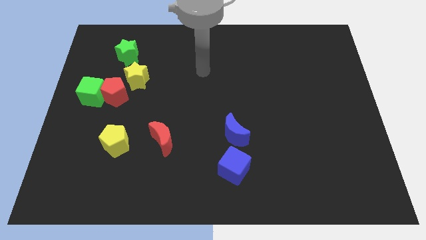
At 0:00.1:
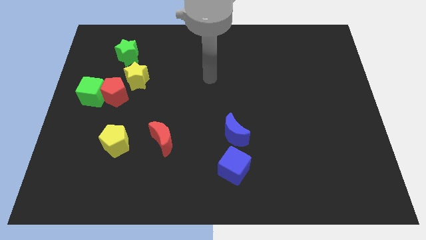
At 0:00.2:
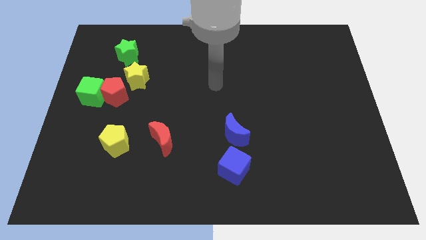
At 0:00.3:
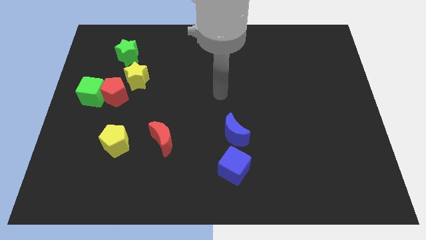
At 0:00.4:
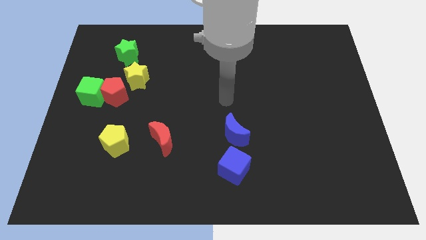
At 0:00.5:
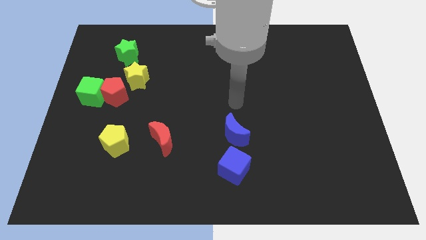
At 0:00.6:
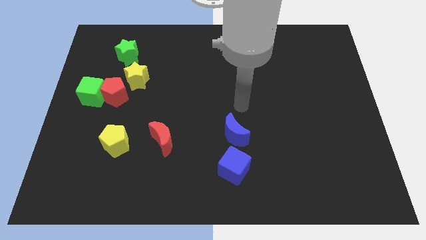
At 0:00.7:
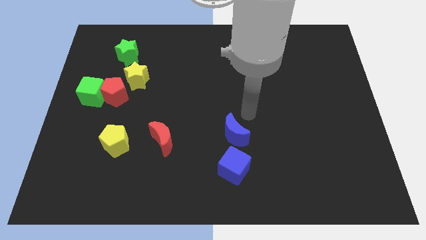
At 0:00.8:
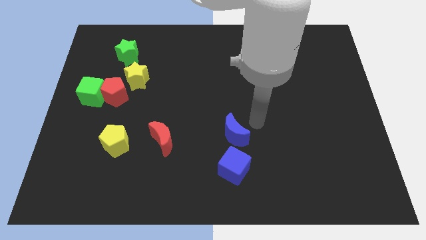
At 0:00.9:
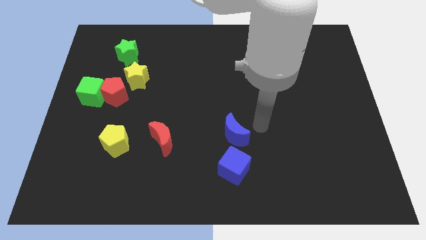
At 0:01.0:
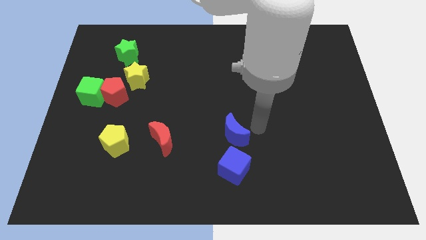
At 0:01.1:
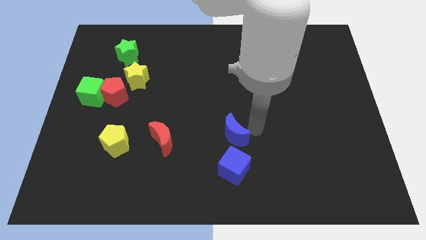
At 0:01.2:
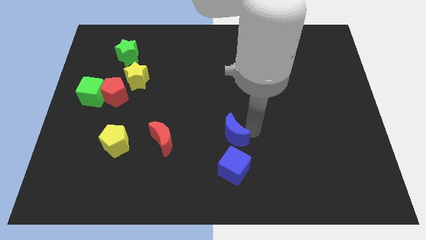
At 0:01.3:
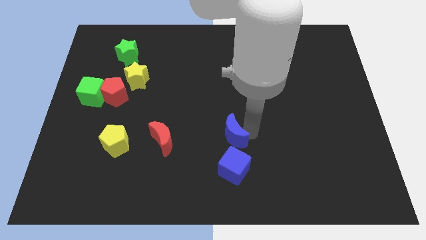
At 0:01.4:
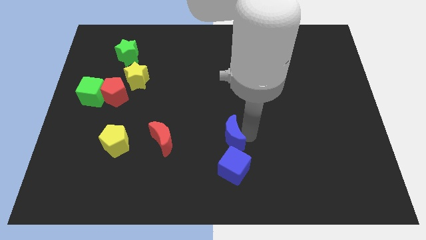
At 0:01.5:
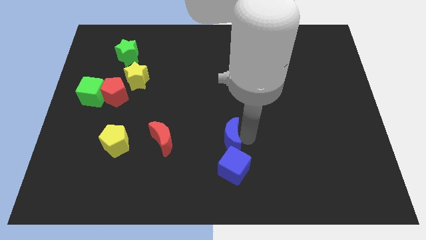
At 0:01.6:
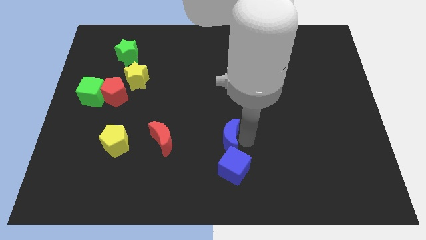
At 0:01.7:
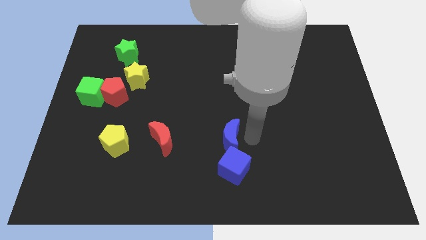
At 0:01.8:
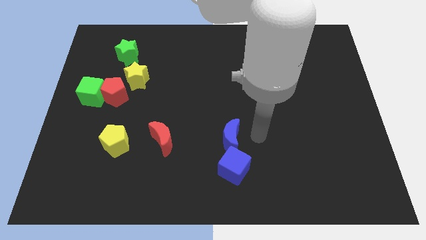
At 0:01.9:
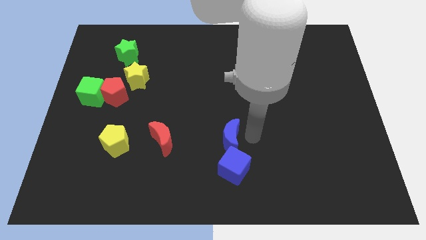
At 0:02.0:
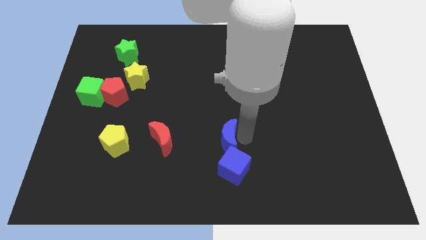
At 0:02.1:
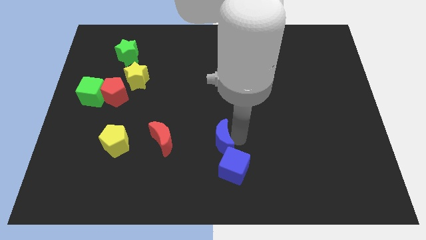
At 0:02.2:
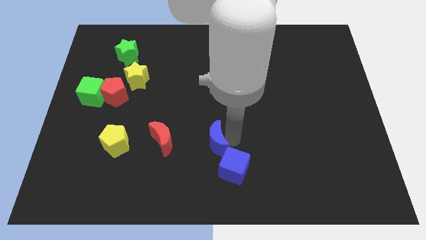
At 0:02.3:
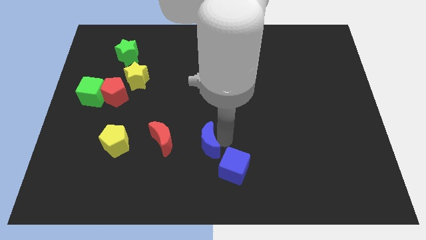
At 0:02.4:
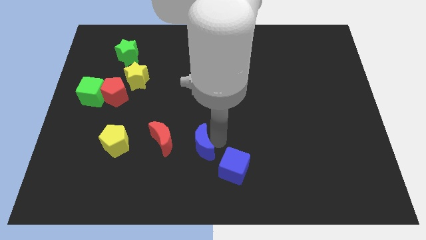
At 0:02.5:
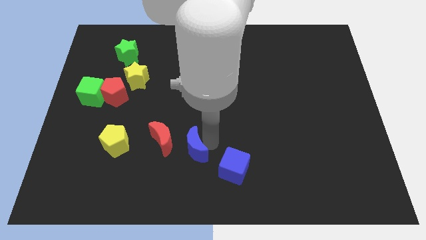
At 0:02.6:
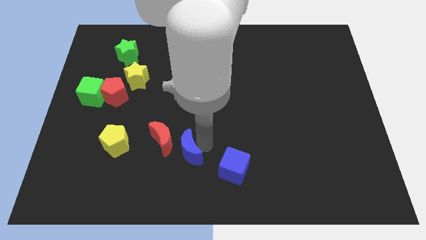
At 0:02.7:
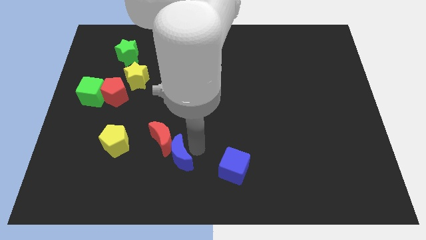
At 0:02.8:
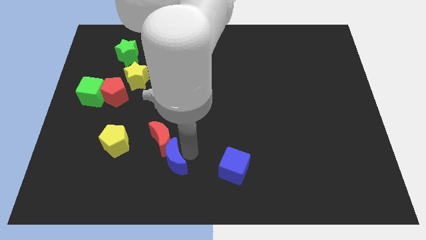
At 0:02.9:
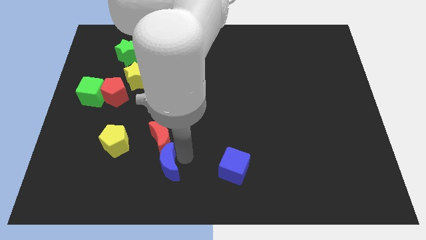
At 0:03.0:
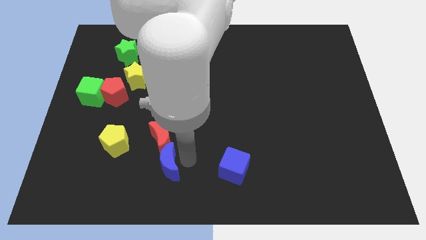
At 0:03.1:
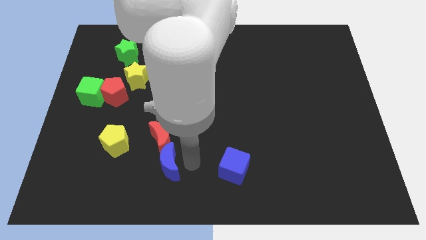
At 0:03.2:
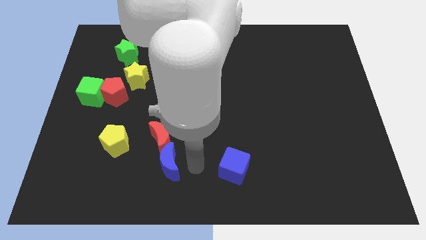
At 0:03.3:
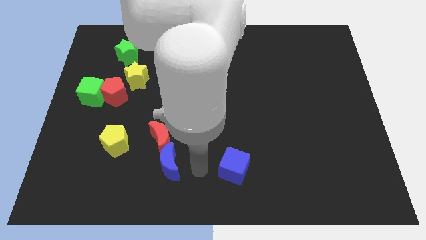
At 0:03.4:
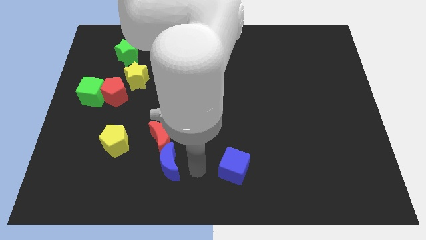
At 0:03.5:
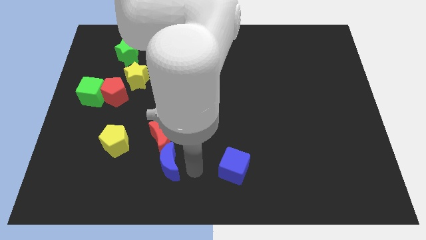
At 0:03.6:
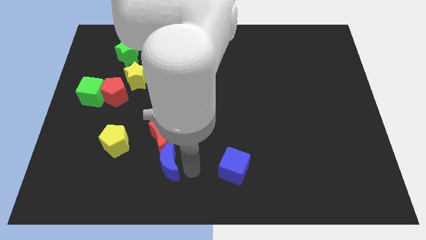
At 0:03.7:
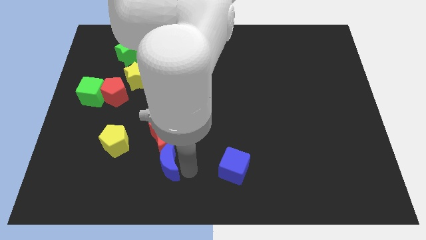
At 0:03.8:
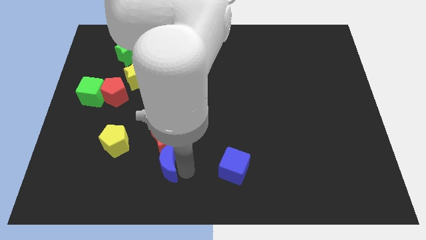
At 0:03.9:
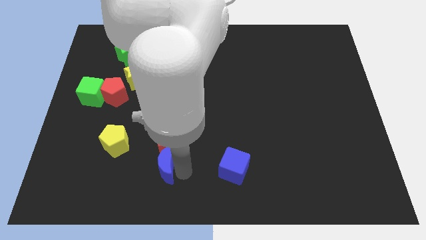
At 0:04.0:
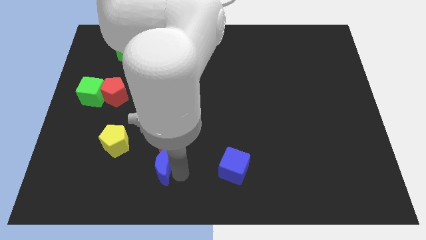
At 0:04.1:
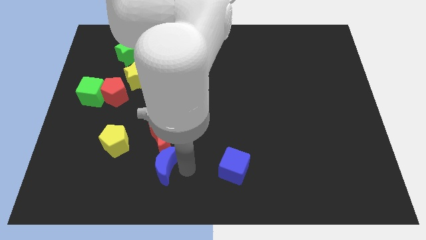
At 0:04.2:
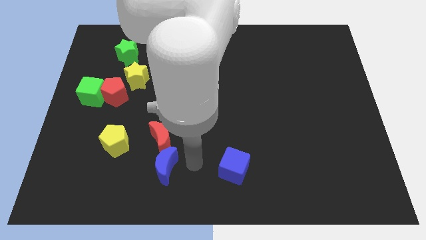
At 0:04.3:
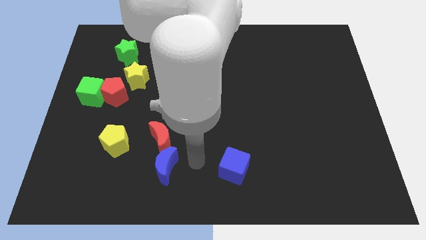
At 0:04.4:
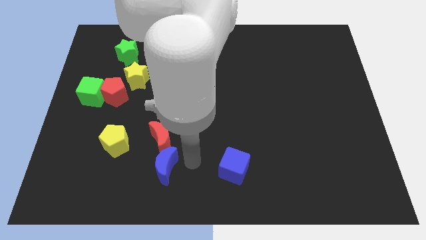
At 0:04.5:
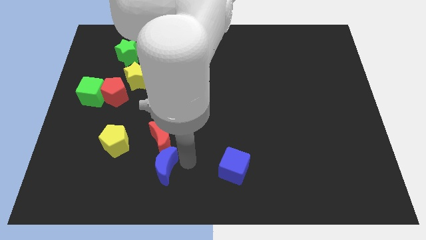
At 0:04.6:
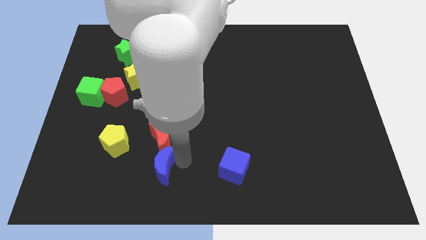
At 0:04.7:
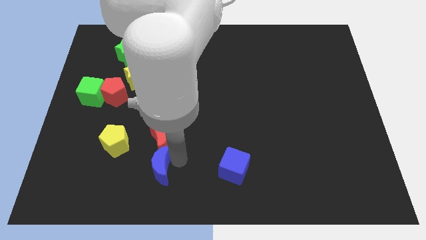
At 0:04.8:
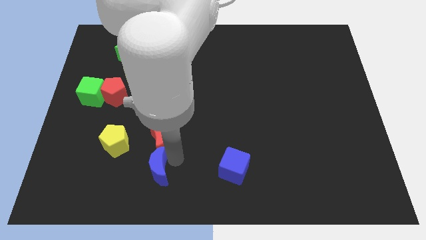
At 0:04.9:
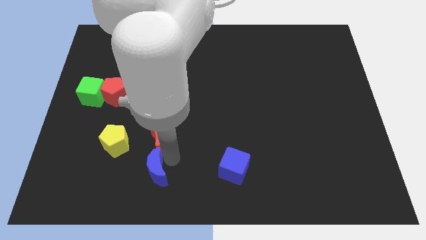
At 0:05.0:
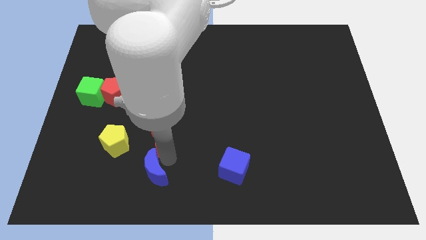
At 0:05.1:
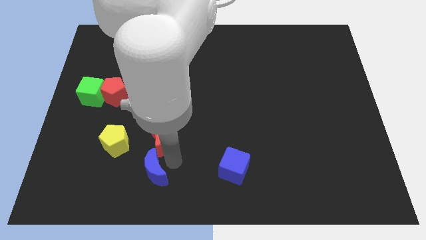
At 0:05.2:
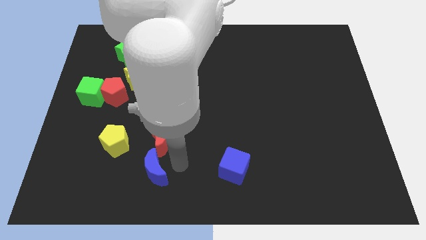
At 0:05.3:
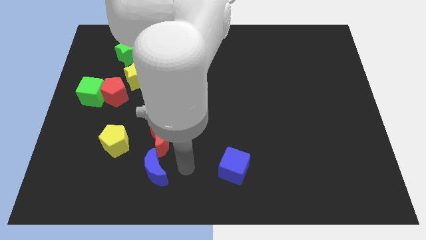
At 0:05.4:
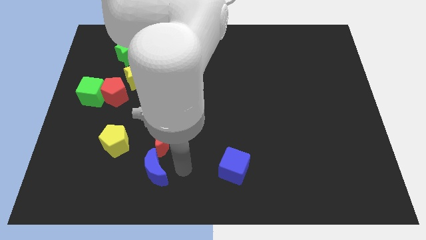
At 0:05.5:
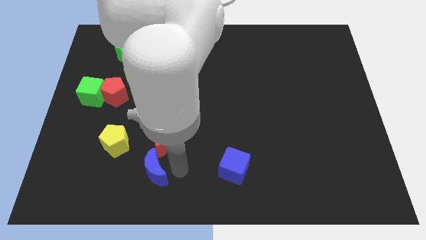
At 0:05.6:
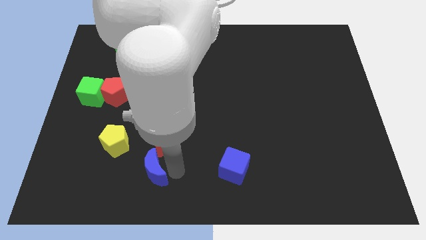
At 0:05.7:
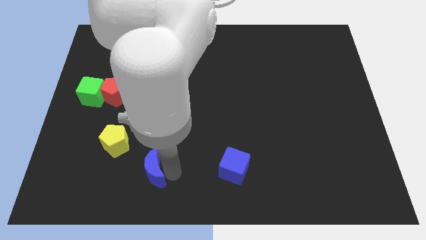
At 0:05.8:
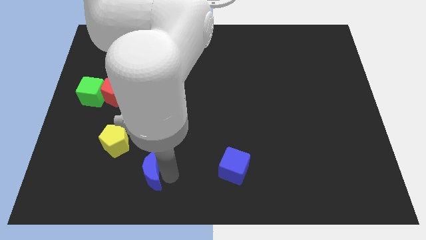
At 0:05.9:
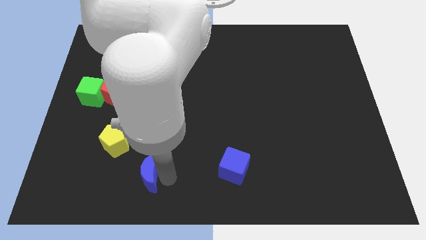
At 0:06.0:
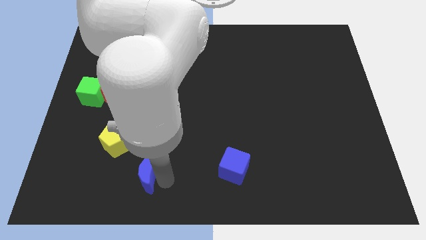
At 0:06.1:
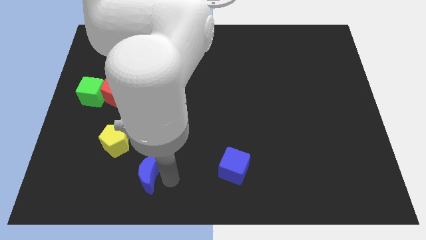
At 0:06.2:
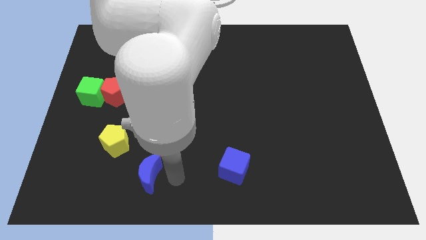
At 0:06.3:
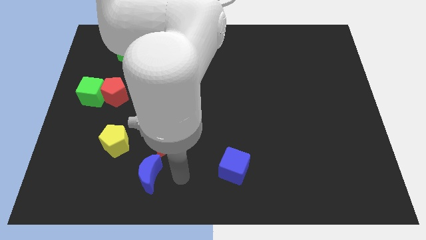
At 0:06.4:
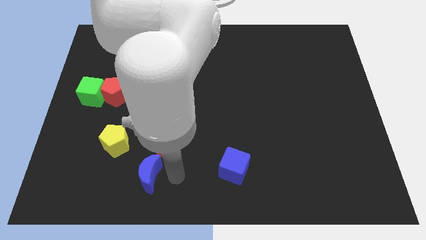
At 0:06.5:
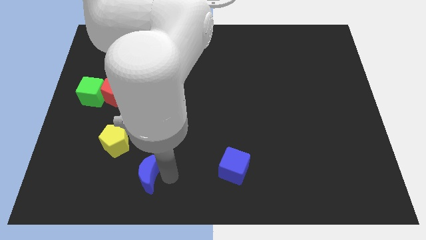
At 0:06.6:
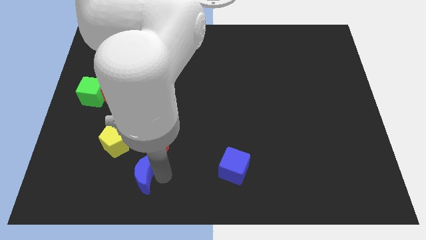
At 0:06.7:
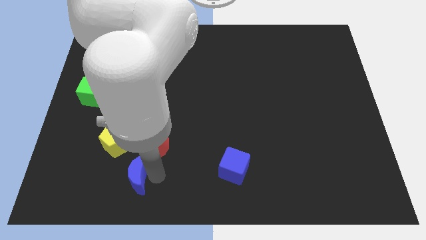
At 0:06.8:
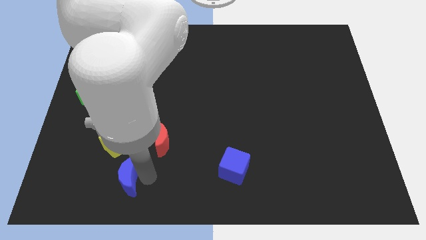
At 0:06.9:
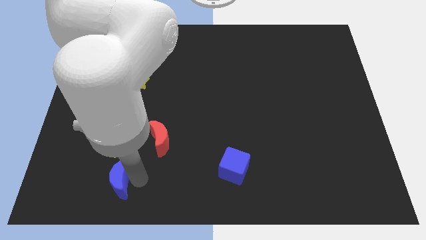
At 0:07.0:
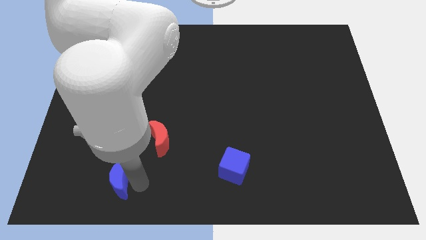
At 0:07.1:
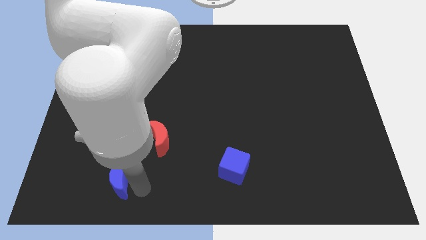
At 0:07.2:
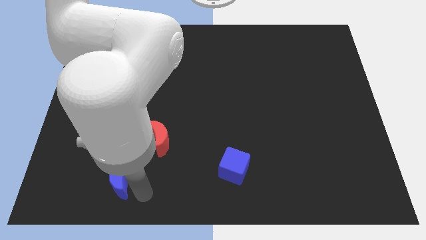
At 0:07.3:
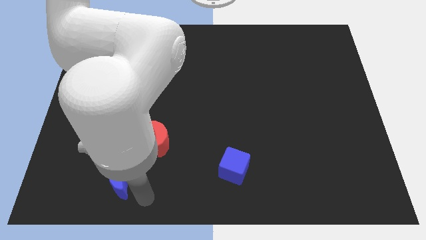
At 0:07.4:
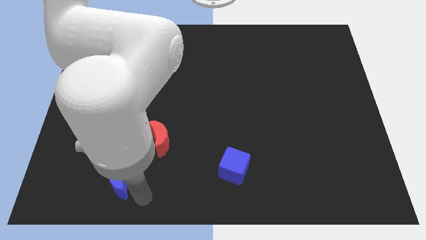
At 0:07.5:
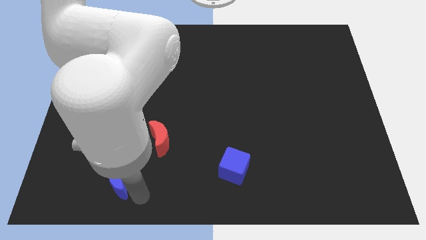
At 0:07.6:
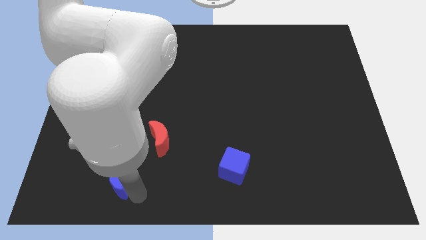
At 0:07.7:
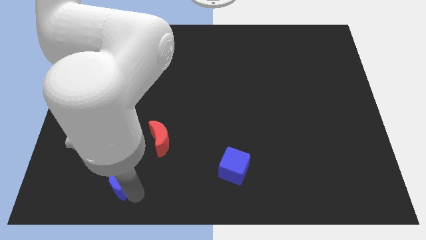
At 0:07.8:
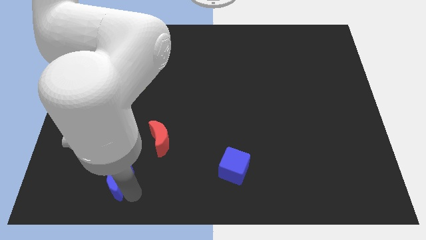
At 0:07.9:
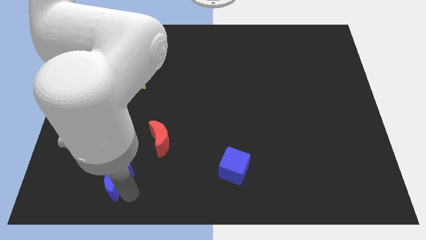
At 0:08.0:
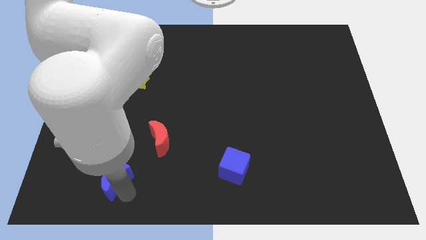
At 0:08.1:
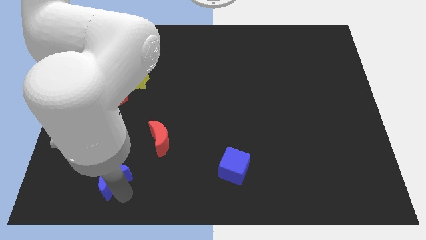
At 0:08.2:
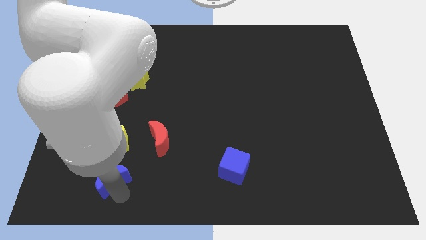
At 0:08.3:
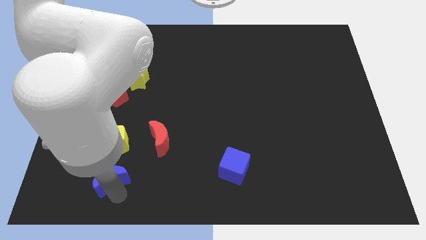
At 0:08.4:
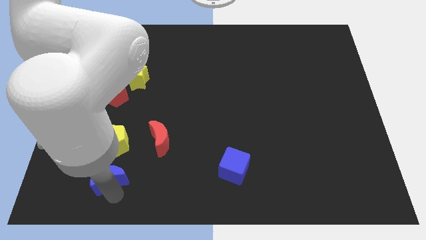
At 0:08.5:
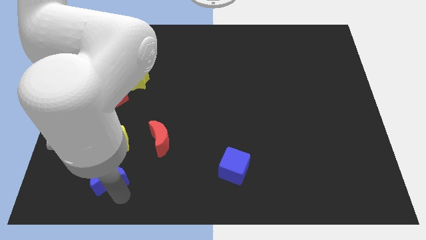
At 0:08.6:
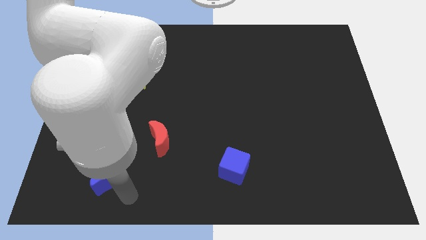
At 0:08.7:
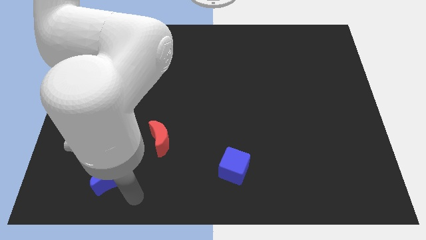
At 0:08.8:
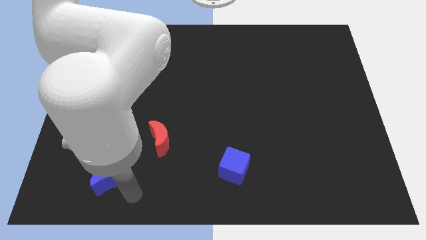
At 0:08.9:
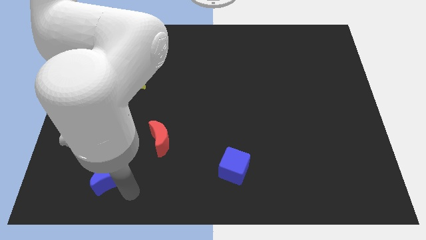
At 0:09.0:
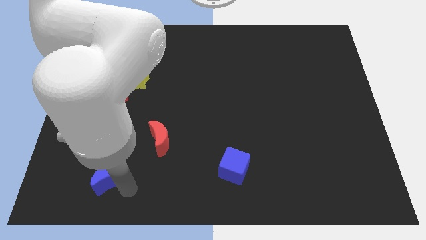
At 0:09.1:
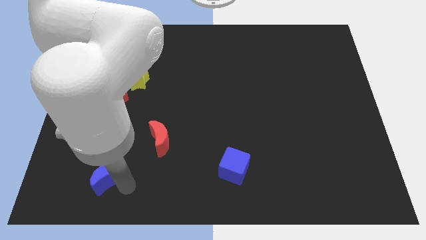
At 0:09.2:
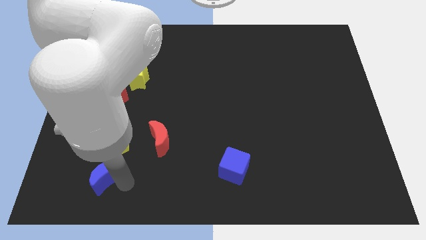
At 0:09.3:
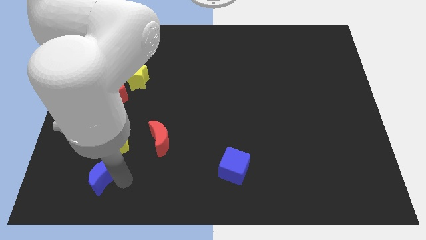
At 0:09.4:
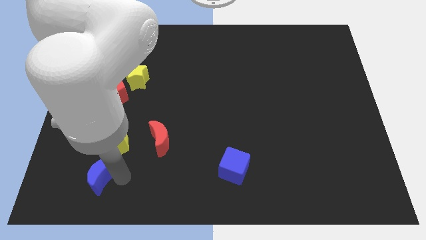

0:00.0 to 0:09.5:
put the blue moon to the bottom left side of the yellow pentagon
